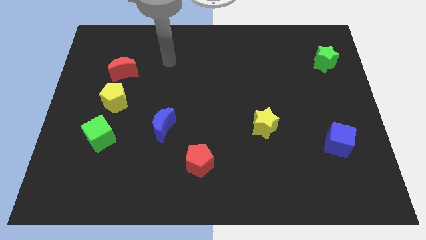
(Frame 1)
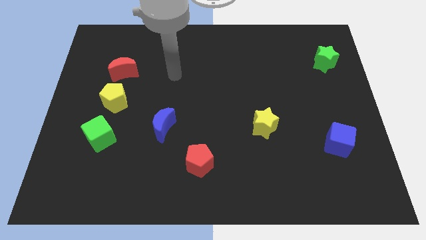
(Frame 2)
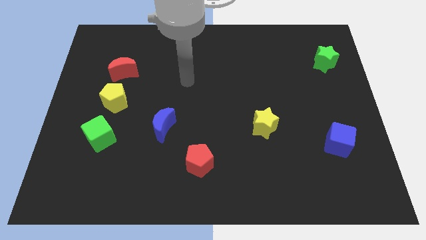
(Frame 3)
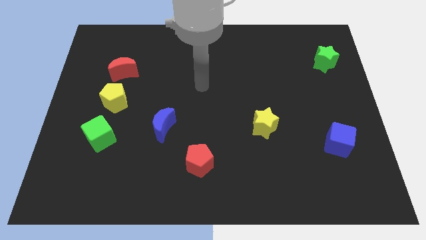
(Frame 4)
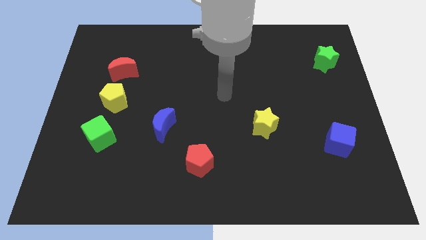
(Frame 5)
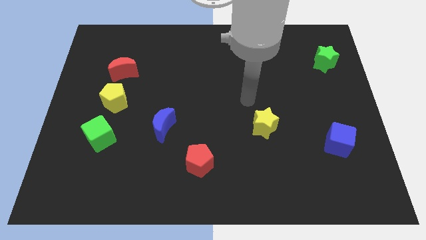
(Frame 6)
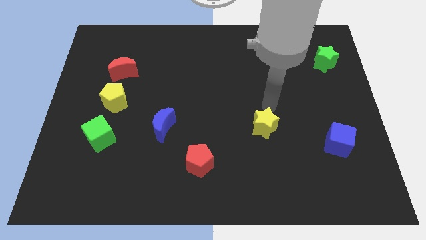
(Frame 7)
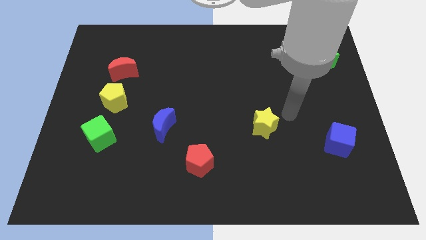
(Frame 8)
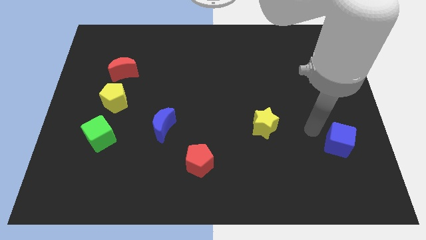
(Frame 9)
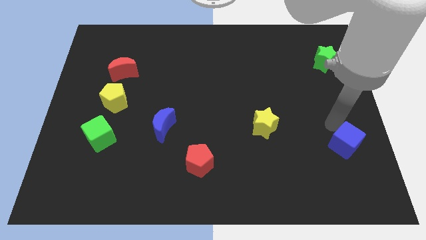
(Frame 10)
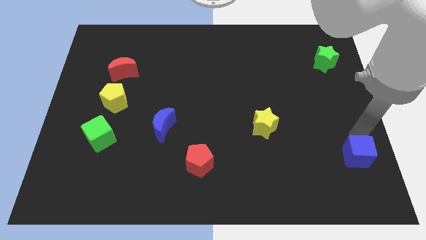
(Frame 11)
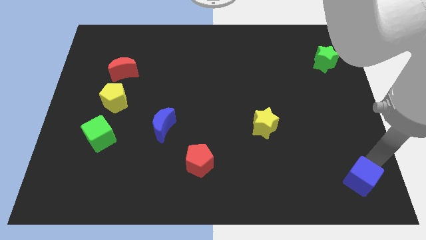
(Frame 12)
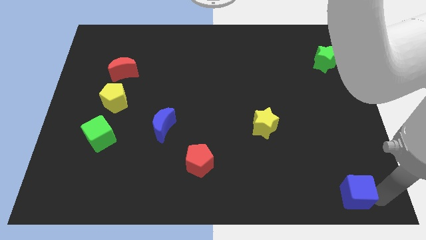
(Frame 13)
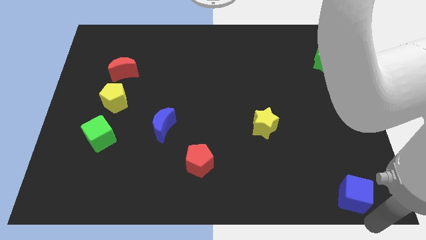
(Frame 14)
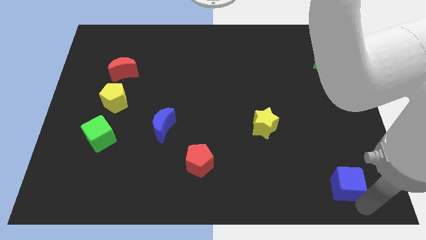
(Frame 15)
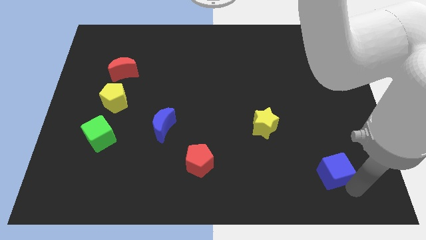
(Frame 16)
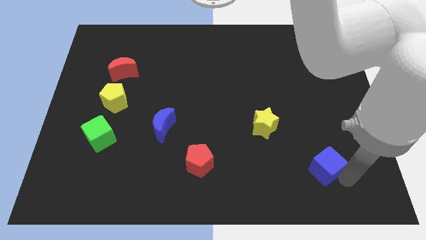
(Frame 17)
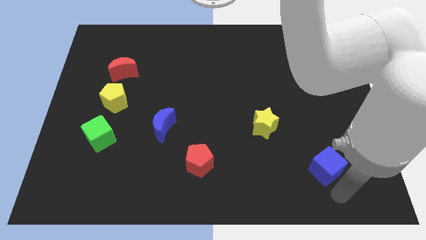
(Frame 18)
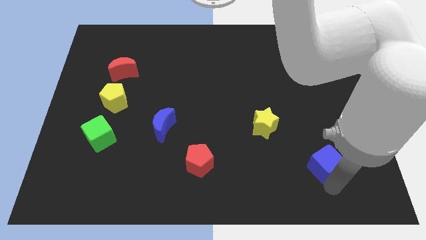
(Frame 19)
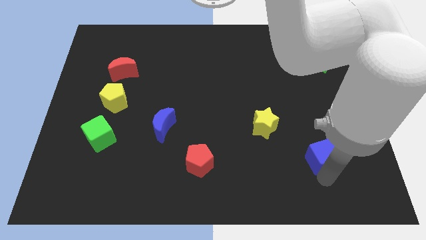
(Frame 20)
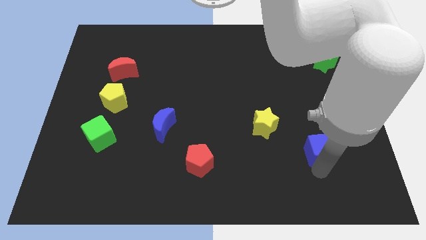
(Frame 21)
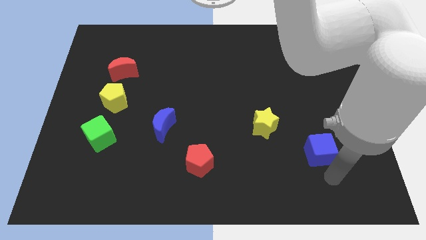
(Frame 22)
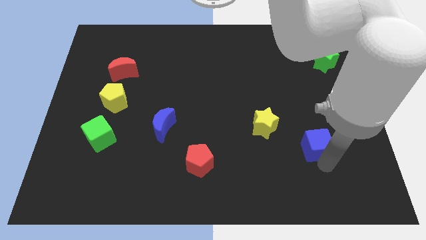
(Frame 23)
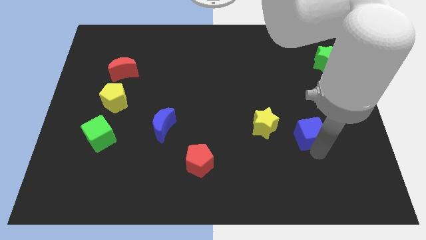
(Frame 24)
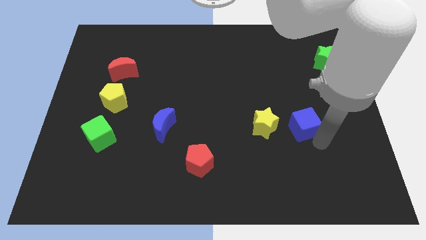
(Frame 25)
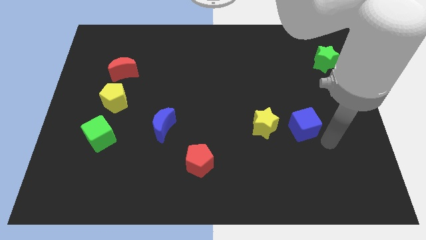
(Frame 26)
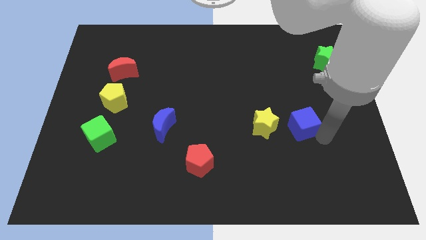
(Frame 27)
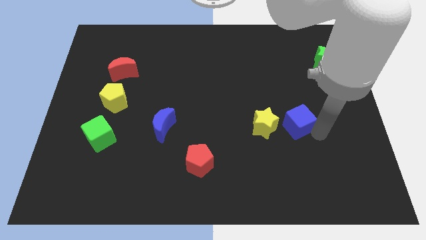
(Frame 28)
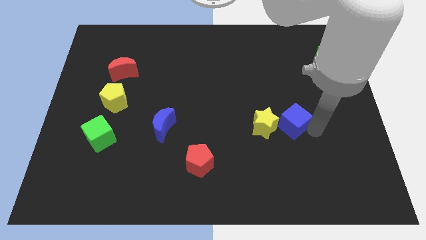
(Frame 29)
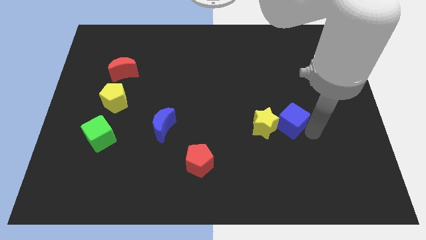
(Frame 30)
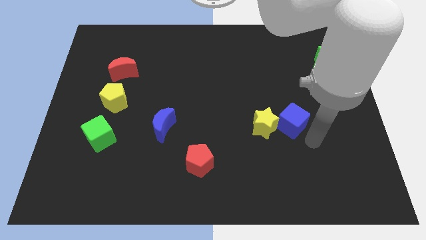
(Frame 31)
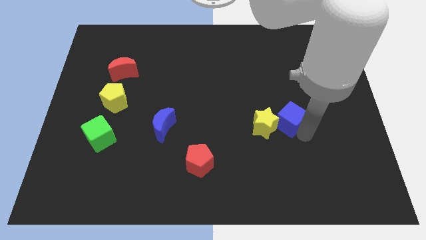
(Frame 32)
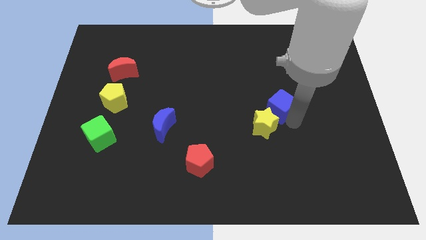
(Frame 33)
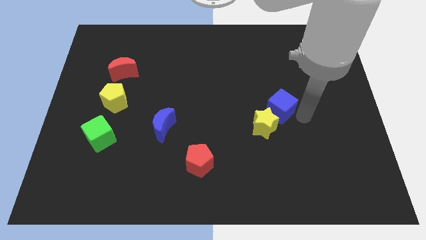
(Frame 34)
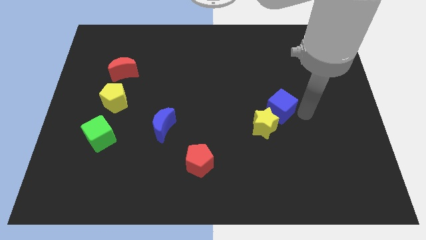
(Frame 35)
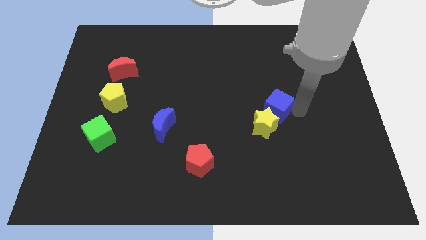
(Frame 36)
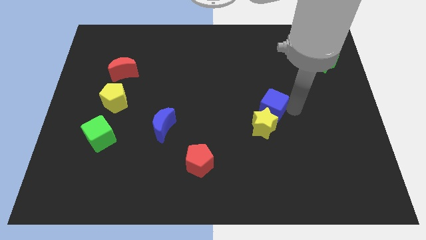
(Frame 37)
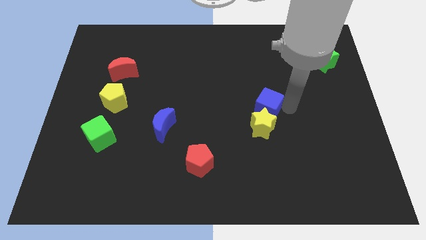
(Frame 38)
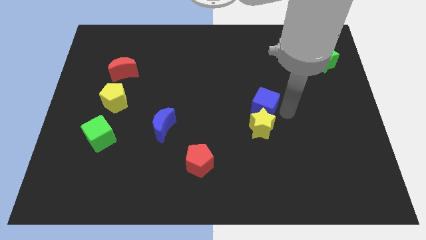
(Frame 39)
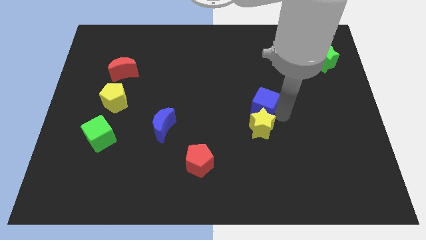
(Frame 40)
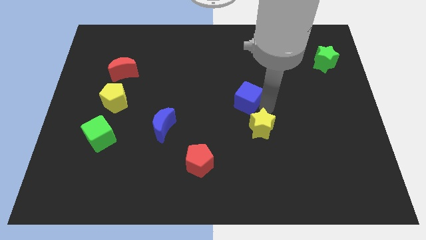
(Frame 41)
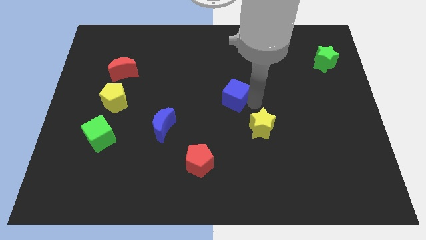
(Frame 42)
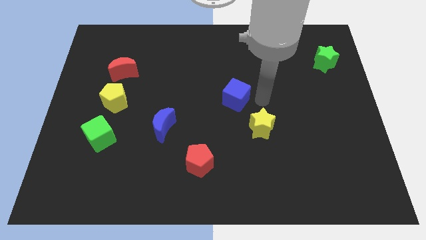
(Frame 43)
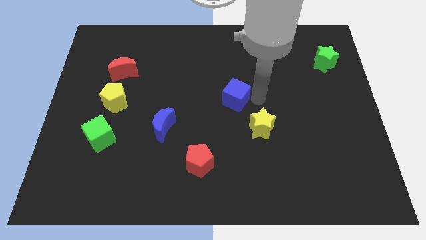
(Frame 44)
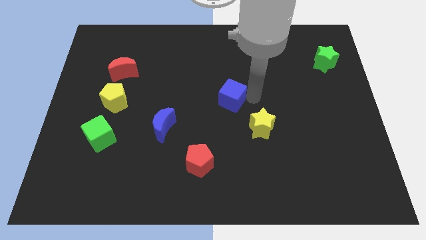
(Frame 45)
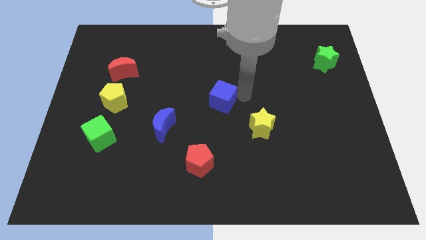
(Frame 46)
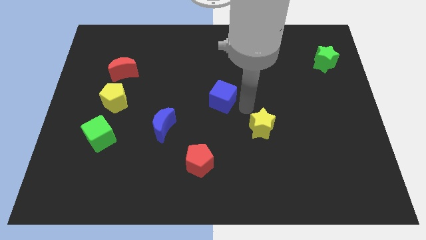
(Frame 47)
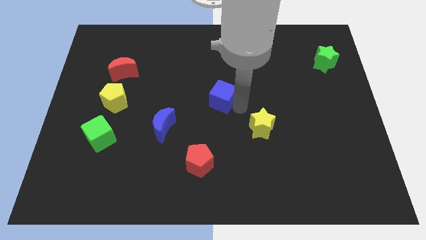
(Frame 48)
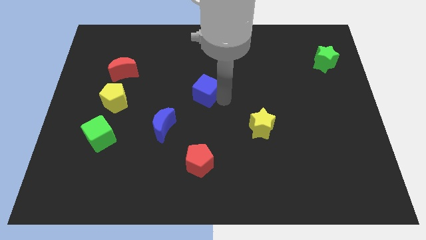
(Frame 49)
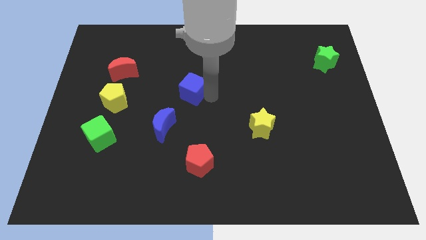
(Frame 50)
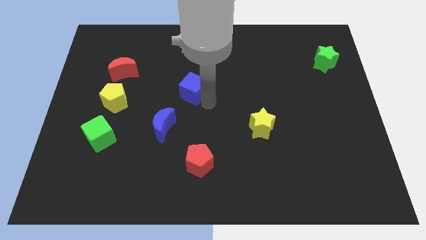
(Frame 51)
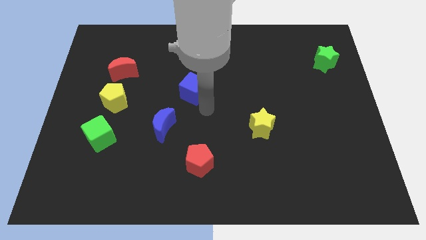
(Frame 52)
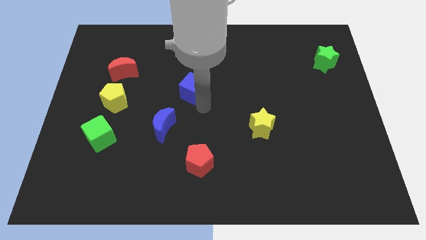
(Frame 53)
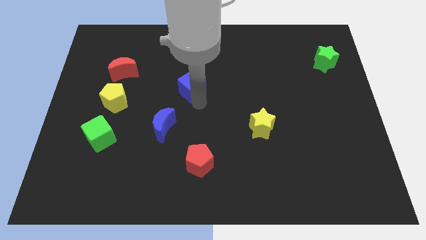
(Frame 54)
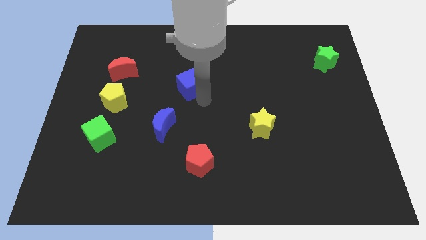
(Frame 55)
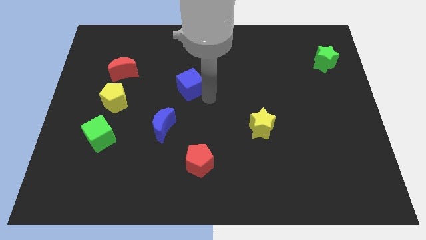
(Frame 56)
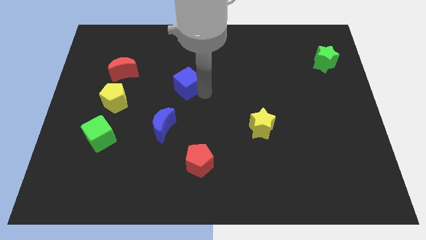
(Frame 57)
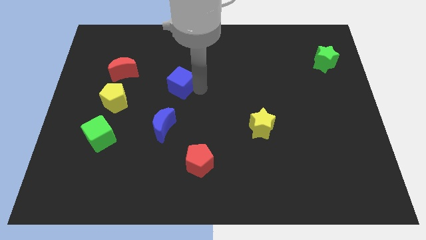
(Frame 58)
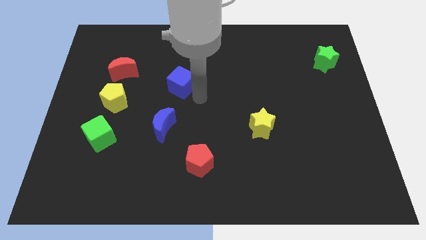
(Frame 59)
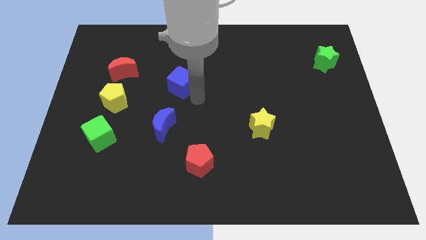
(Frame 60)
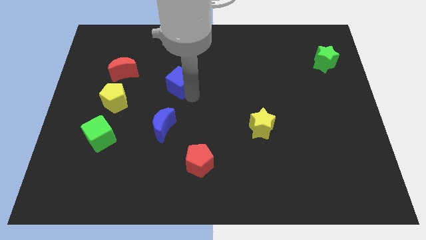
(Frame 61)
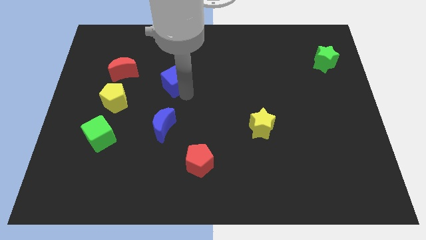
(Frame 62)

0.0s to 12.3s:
slide the blue cube right of the red moon

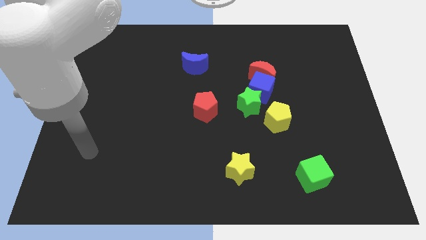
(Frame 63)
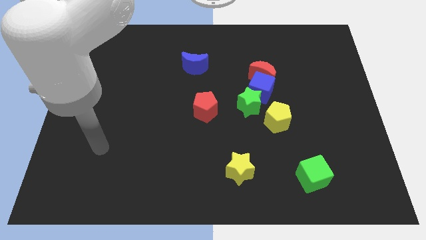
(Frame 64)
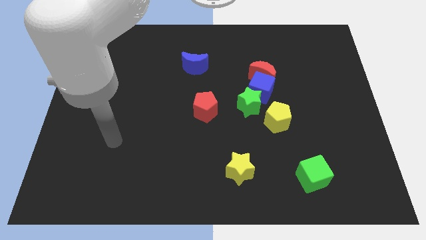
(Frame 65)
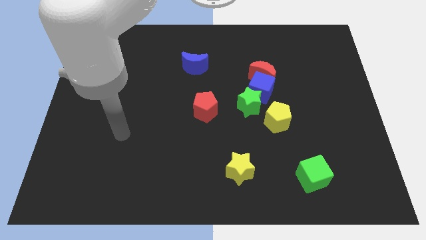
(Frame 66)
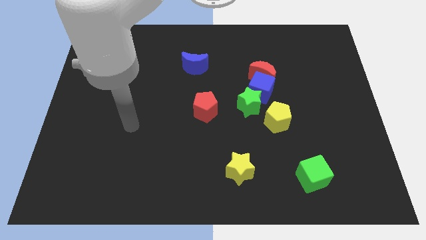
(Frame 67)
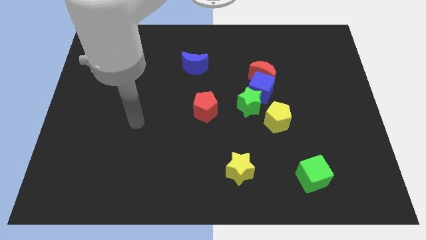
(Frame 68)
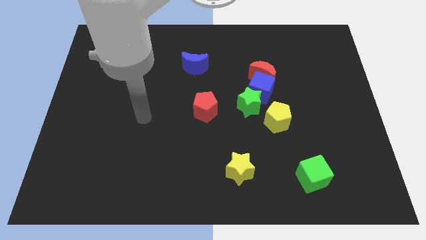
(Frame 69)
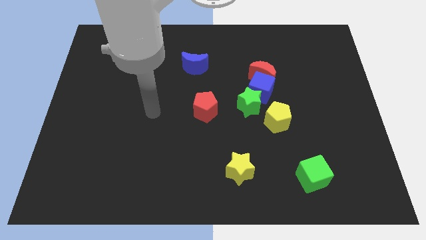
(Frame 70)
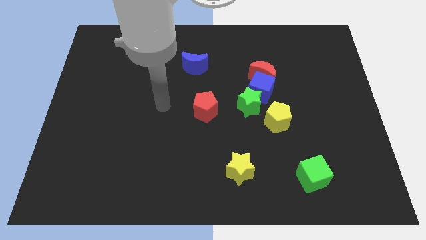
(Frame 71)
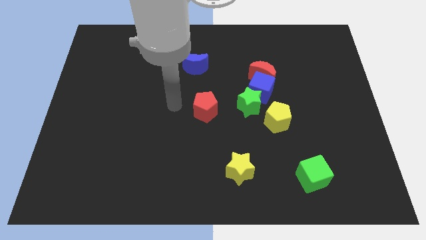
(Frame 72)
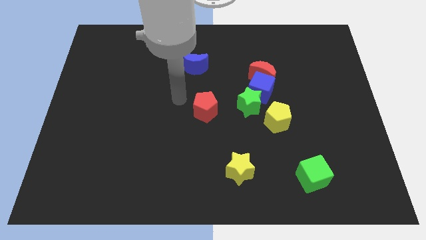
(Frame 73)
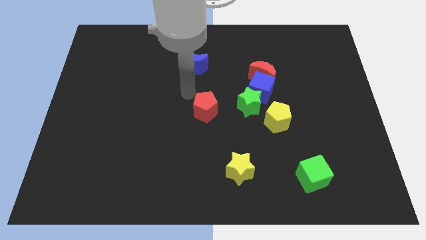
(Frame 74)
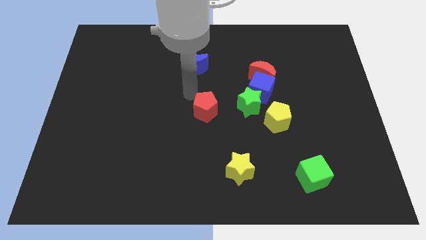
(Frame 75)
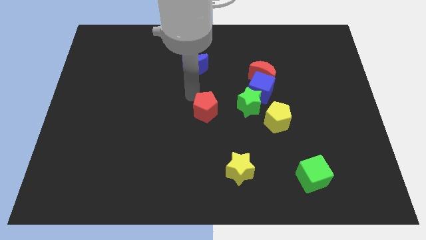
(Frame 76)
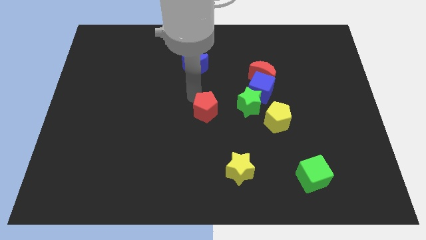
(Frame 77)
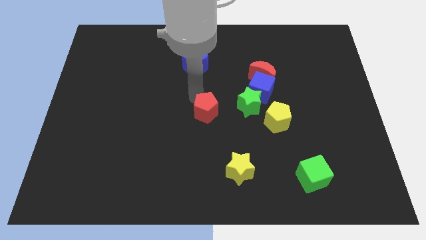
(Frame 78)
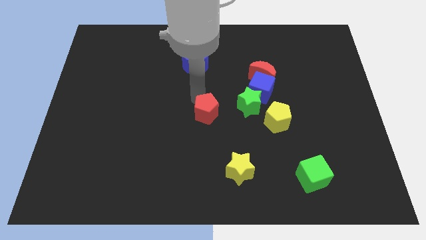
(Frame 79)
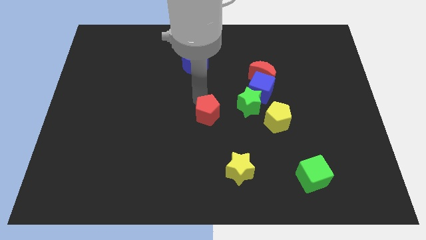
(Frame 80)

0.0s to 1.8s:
move the red pentagon to the left of the yellow pentagon
